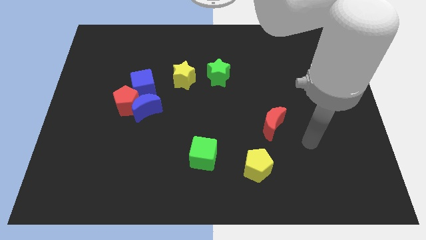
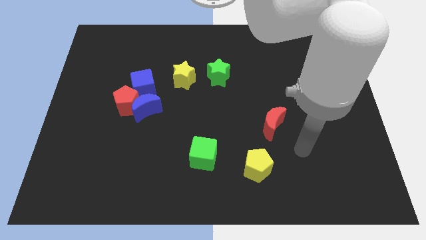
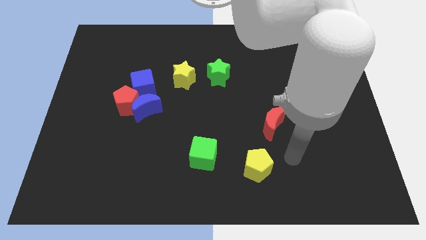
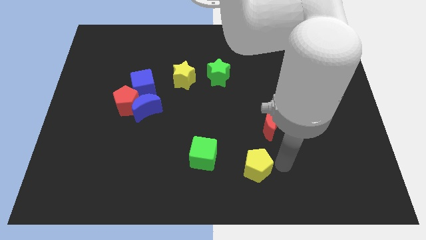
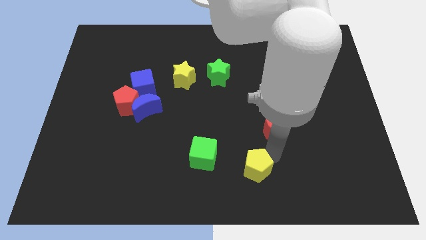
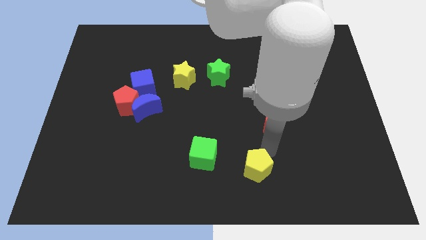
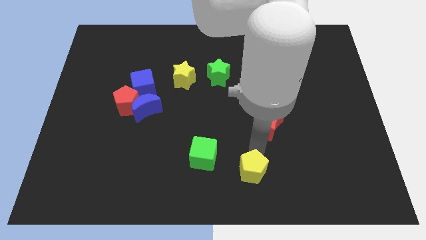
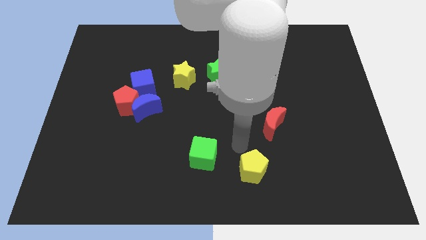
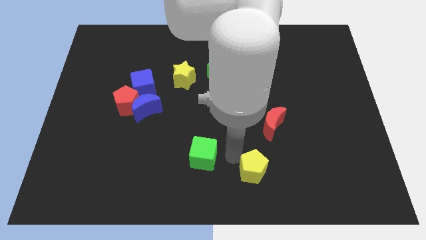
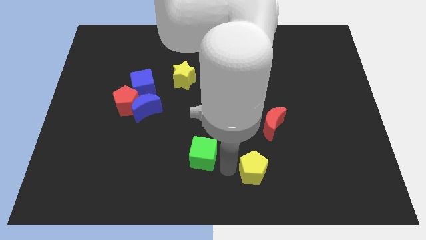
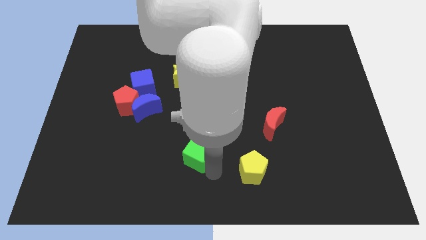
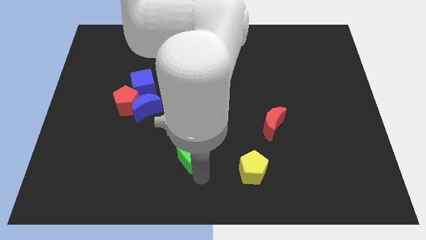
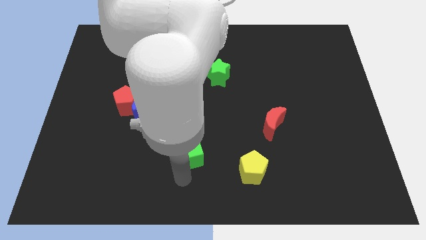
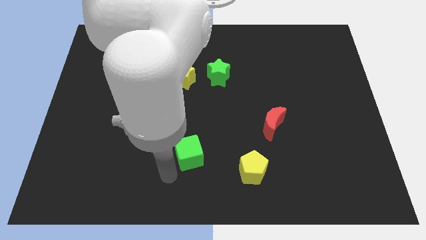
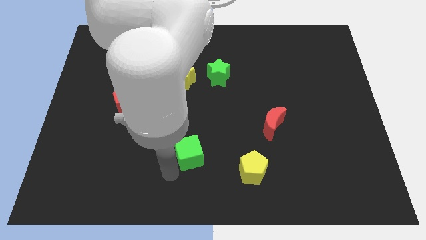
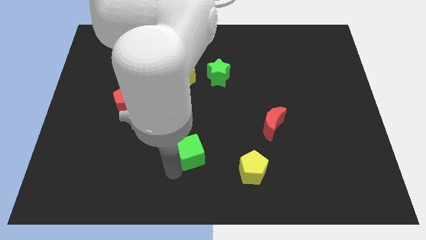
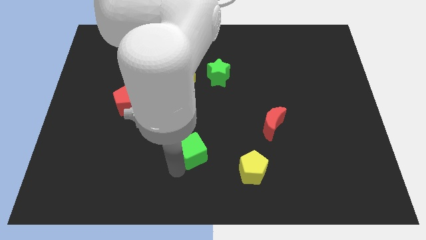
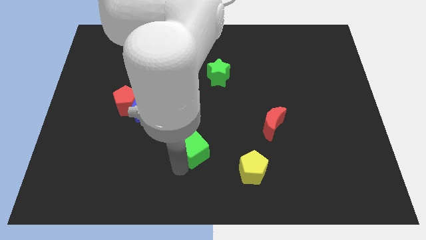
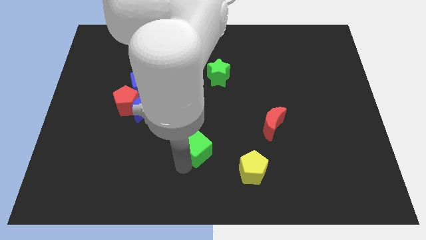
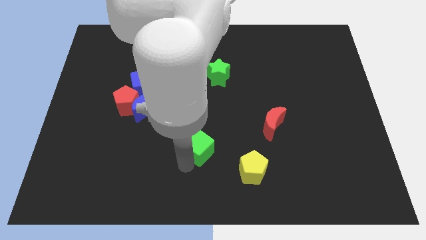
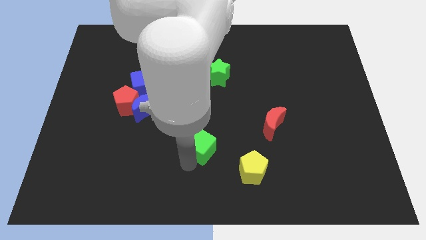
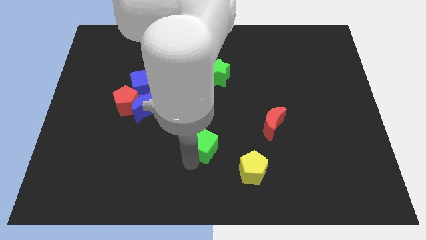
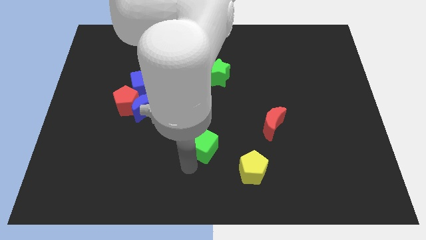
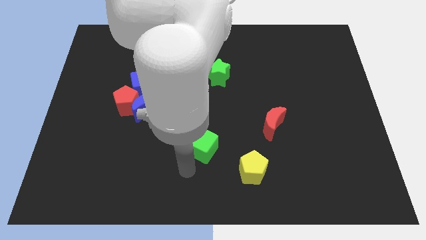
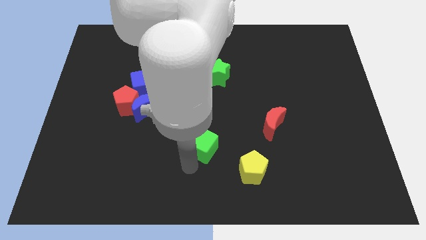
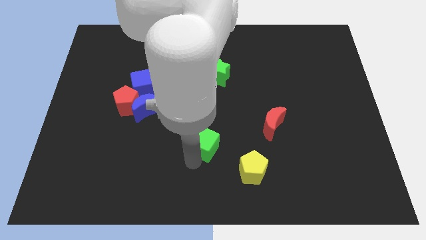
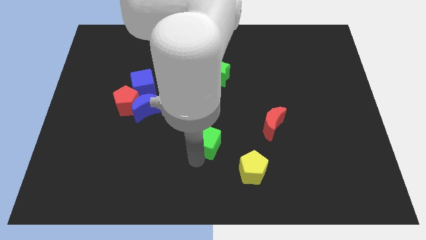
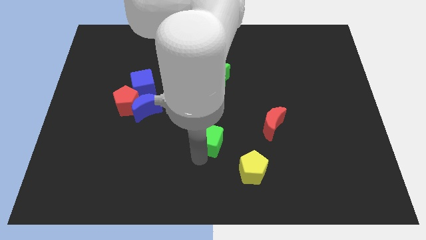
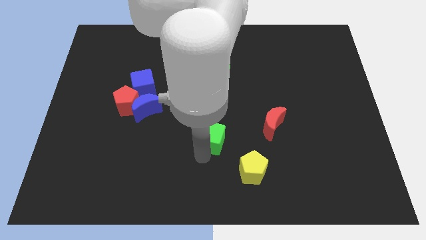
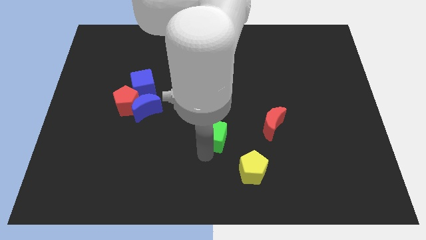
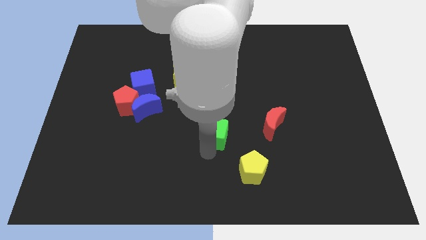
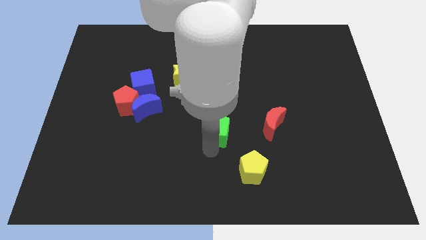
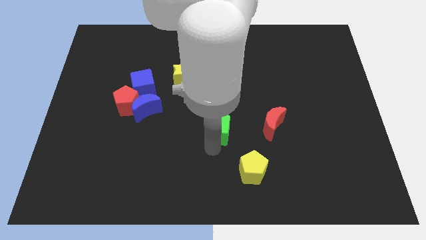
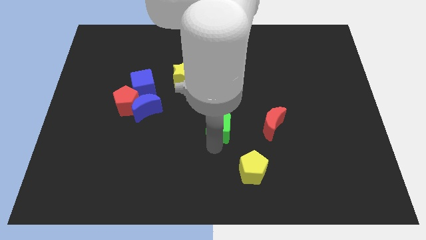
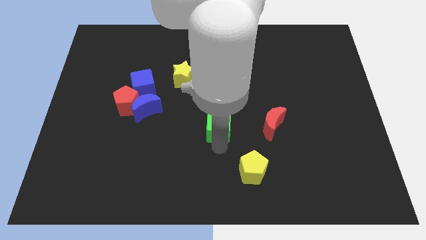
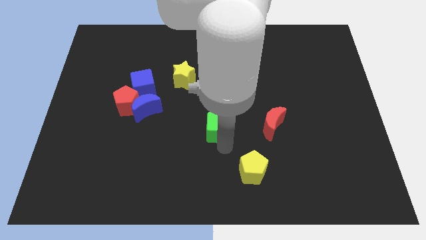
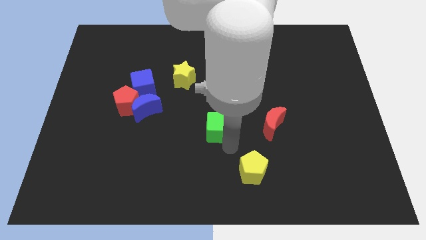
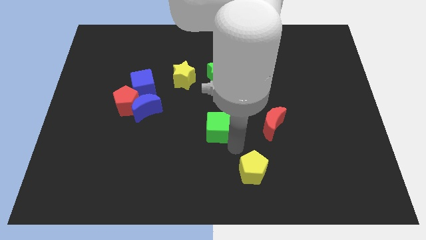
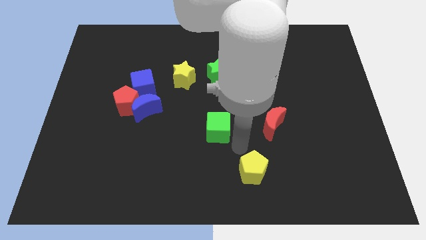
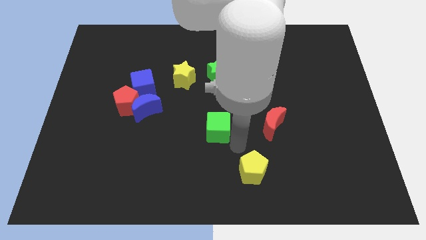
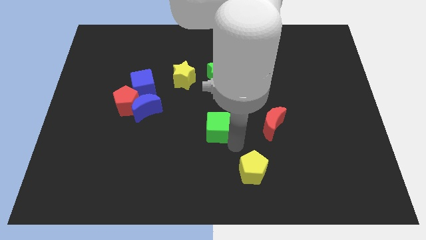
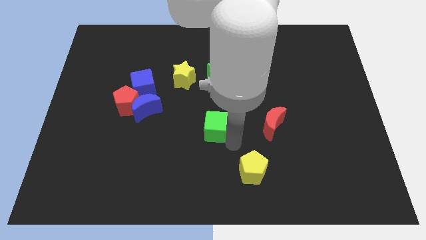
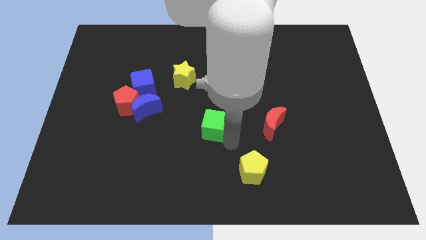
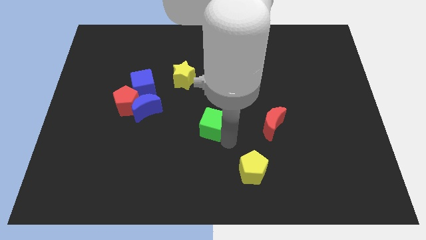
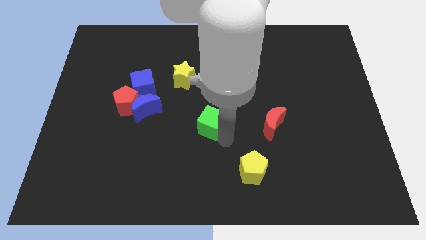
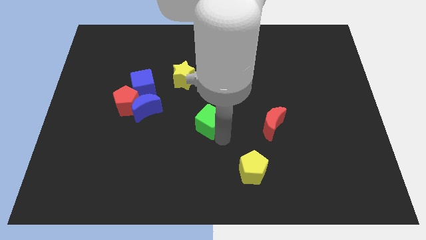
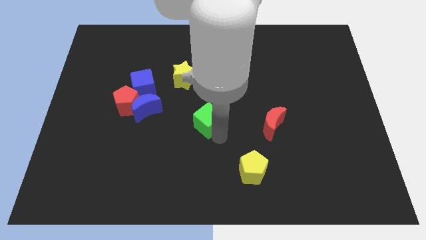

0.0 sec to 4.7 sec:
move the green cube right of the blue moon

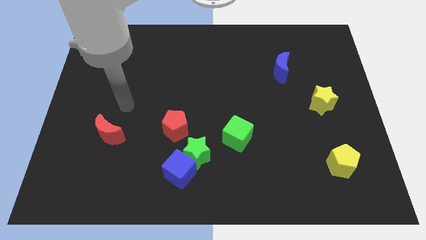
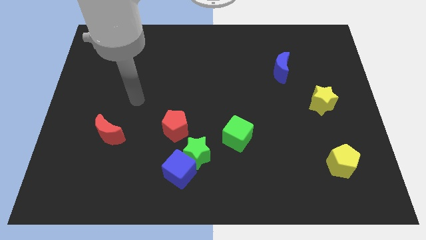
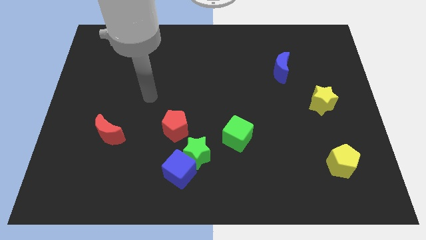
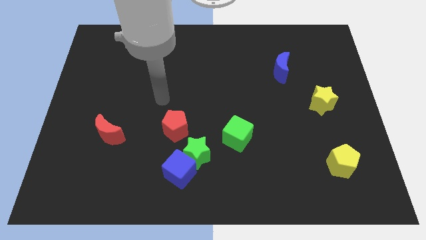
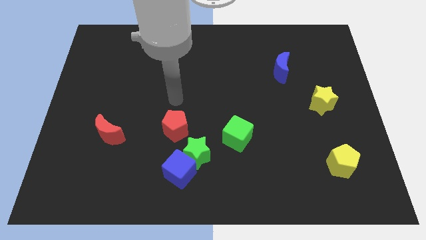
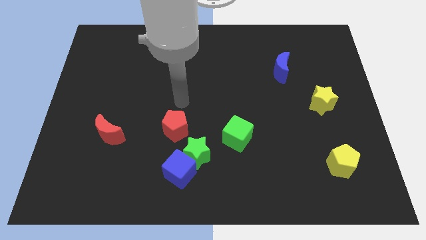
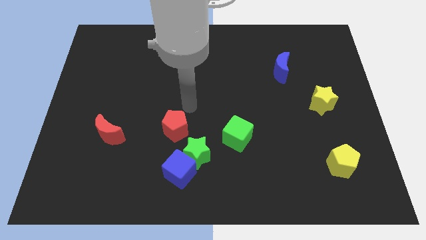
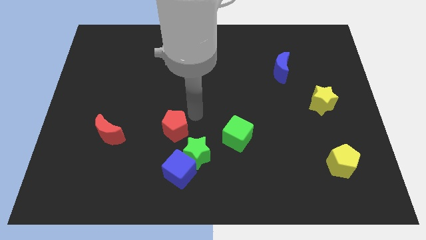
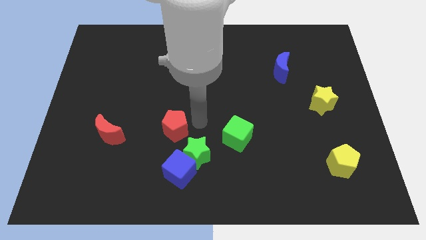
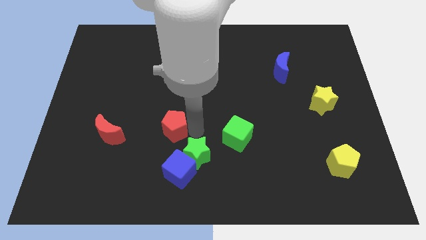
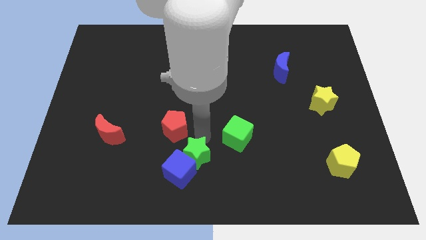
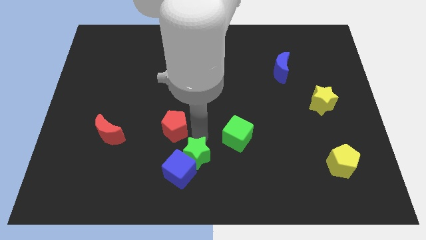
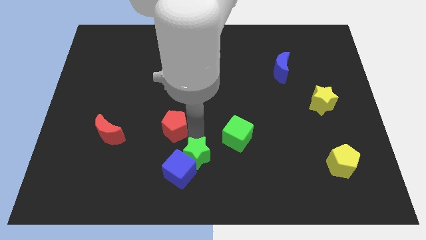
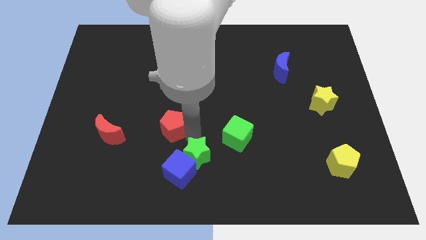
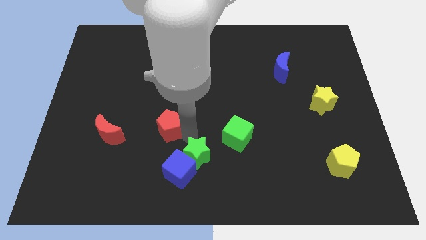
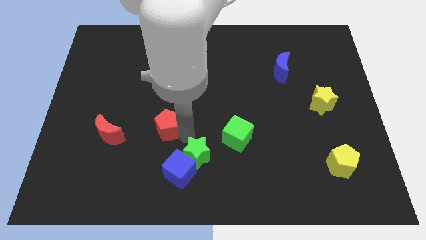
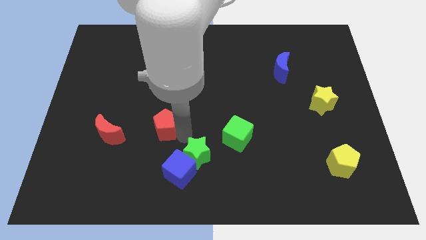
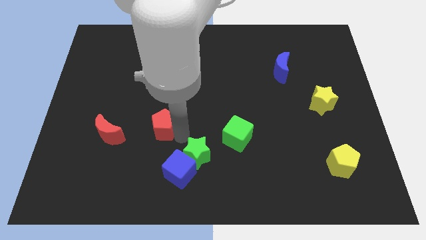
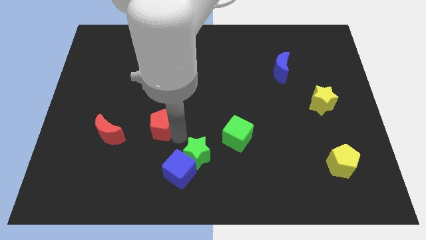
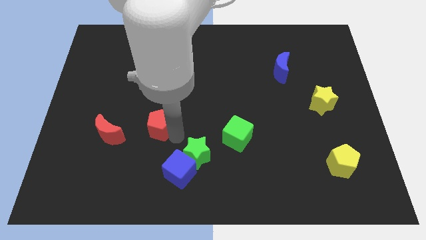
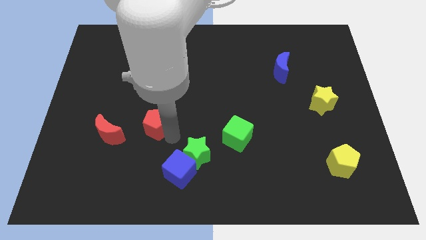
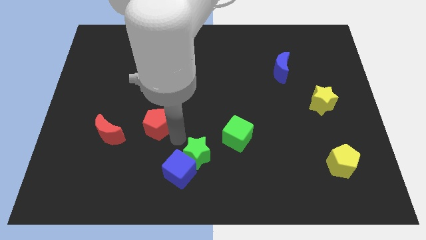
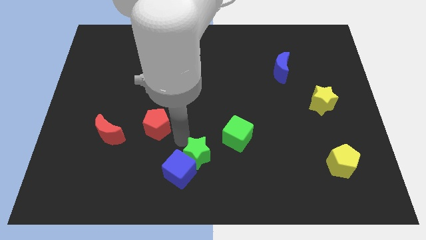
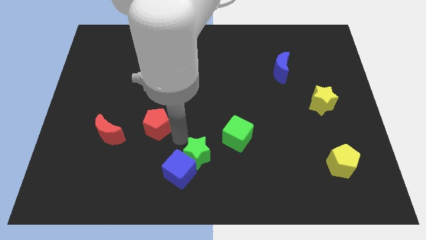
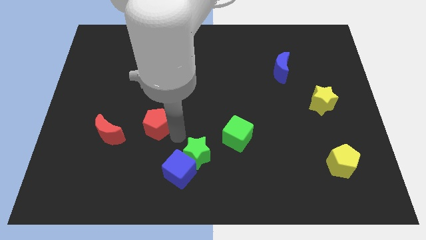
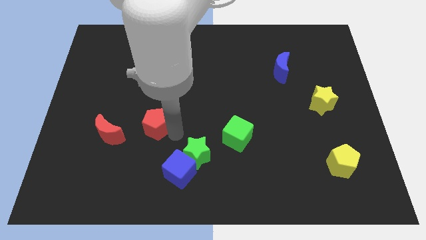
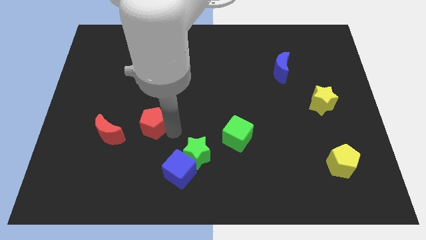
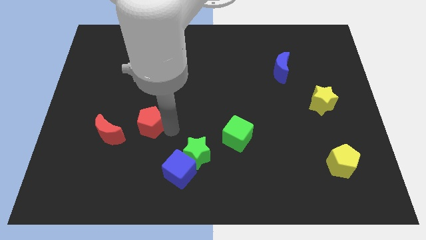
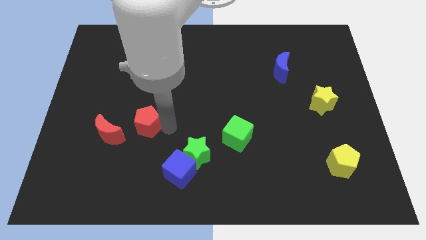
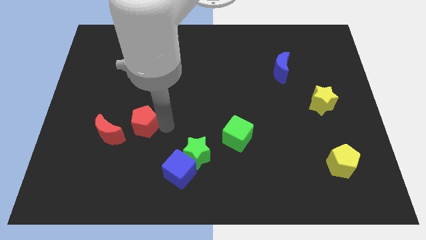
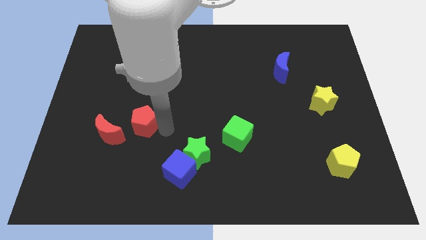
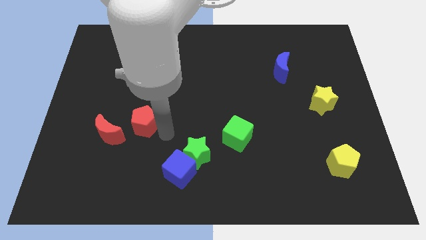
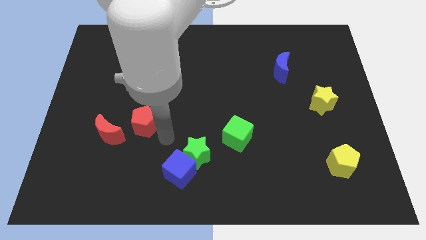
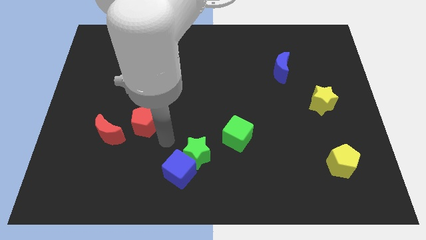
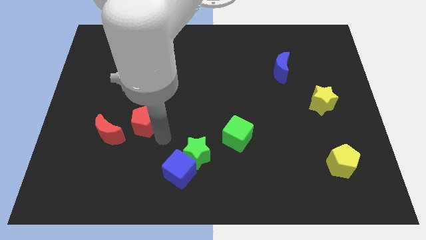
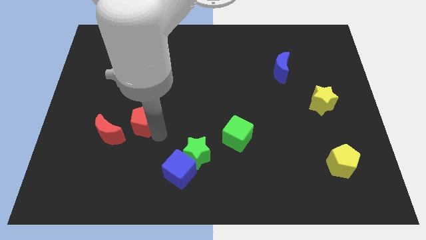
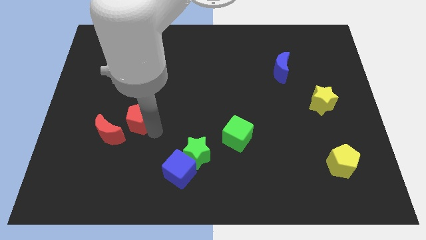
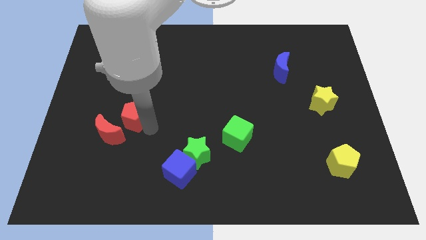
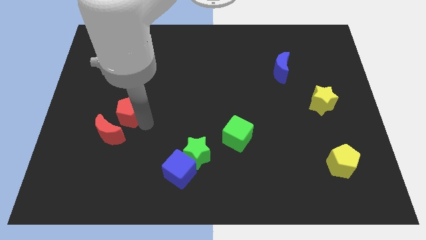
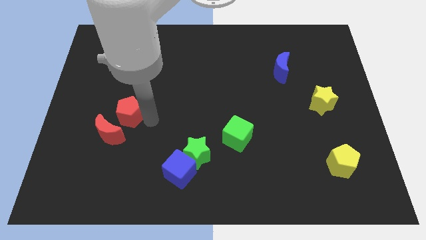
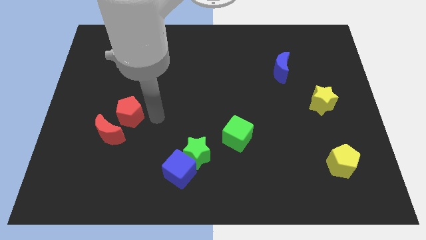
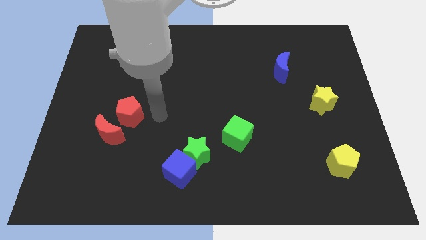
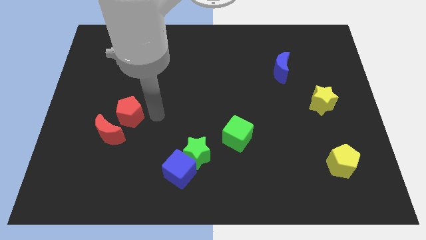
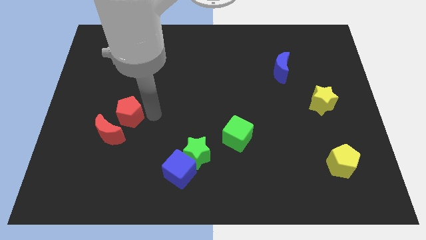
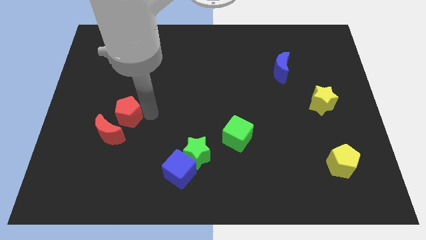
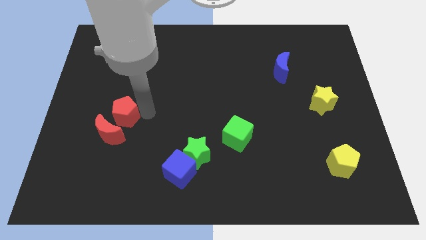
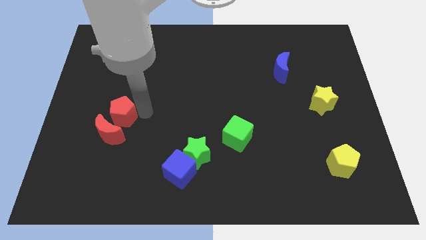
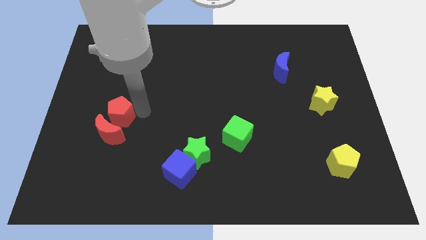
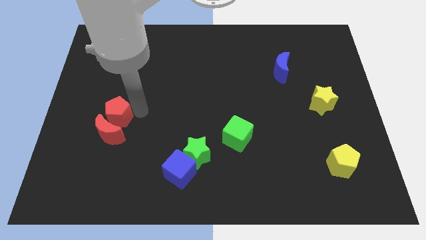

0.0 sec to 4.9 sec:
push the red pentagon to the top left side of the red moon
